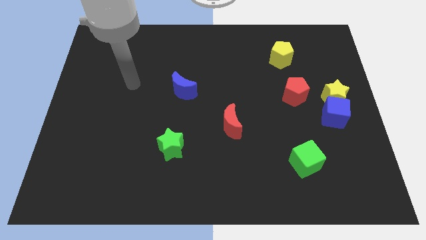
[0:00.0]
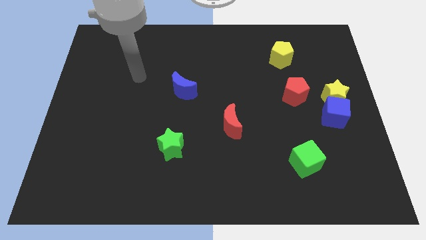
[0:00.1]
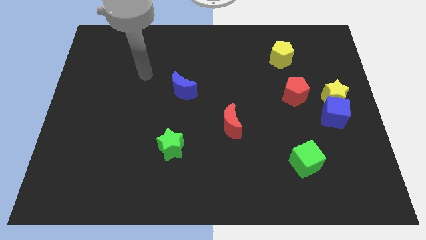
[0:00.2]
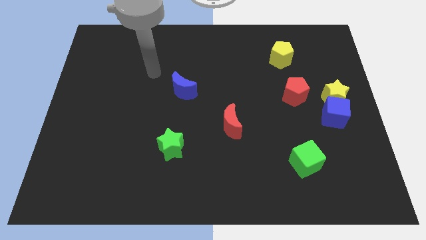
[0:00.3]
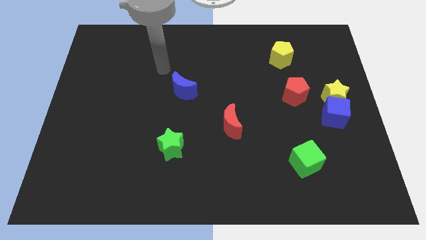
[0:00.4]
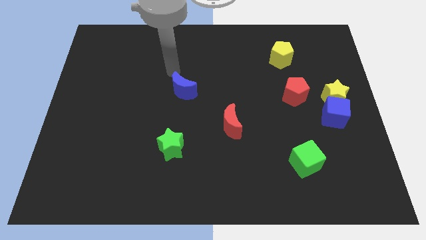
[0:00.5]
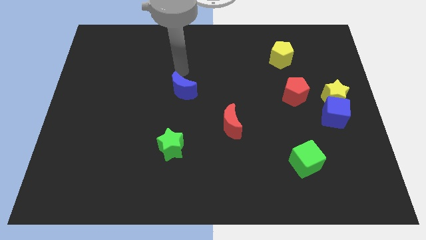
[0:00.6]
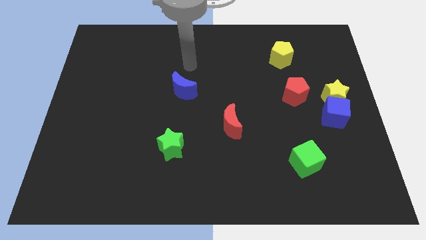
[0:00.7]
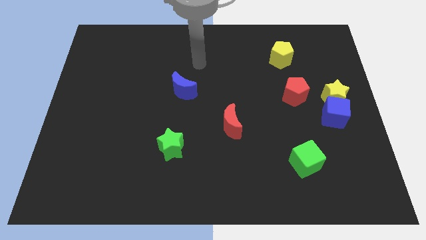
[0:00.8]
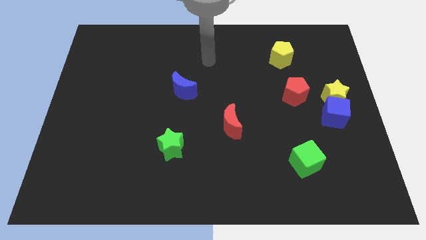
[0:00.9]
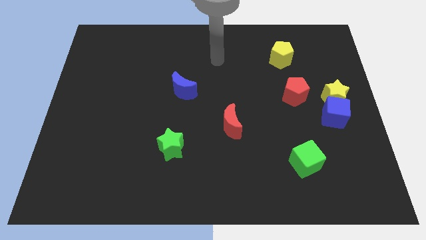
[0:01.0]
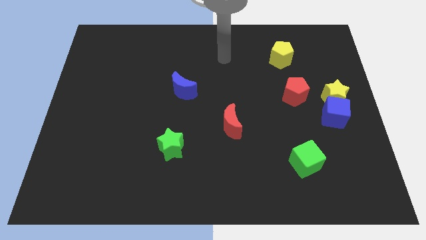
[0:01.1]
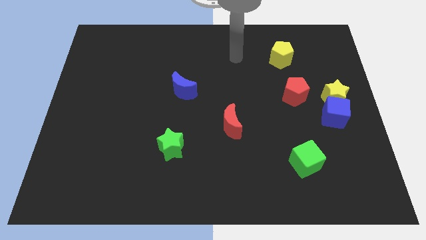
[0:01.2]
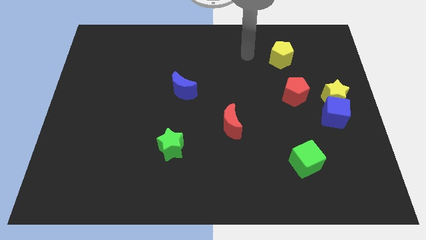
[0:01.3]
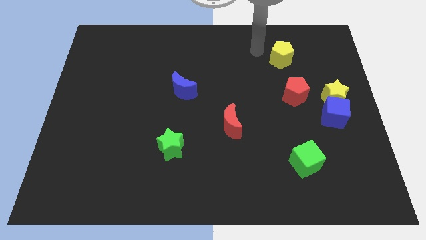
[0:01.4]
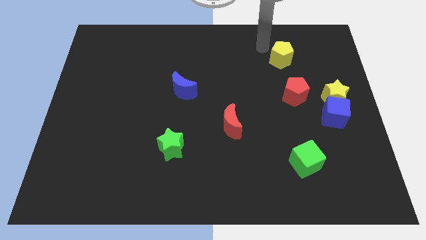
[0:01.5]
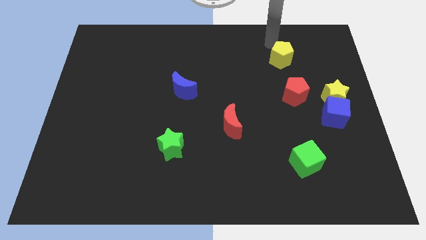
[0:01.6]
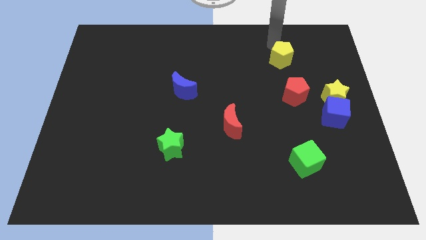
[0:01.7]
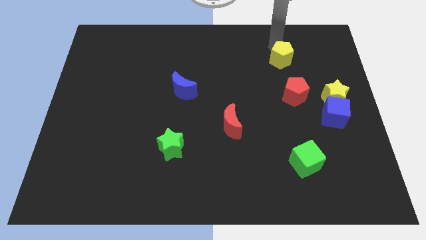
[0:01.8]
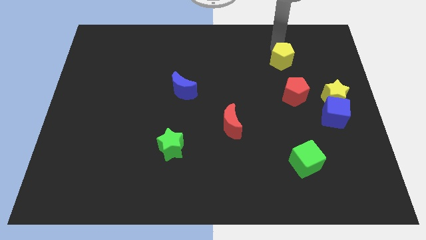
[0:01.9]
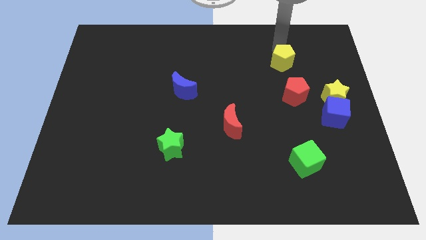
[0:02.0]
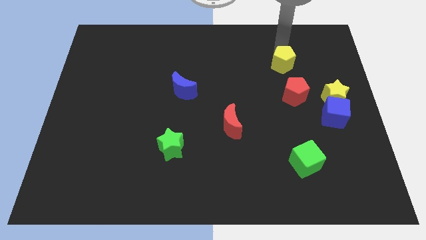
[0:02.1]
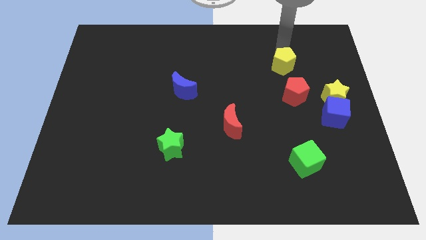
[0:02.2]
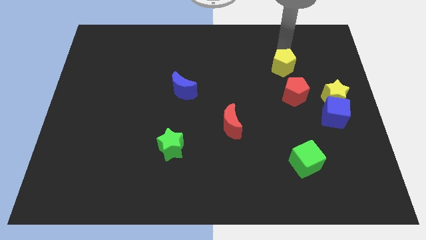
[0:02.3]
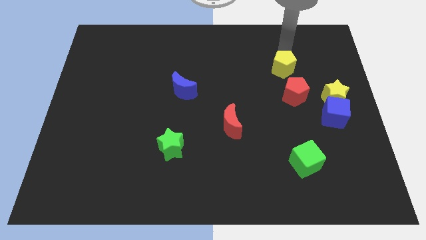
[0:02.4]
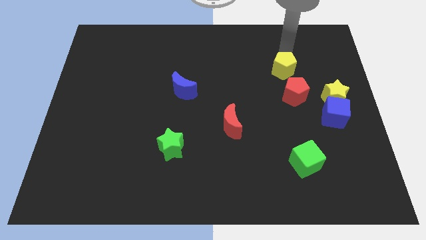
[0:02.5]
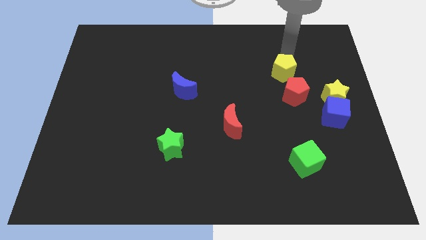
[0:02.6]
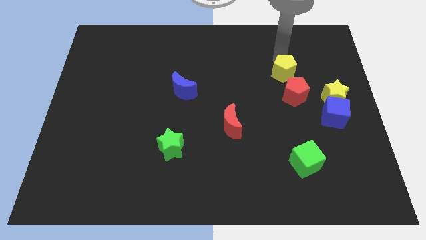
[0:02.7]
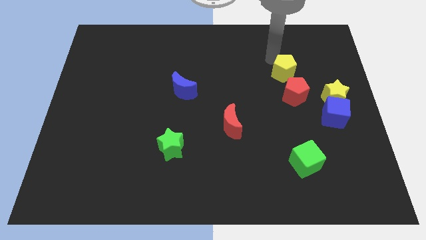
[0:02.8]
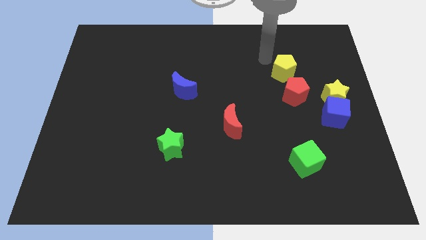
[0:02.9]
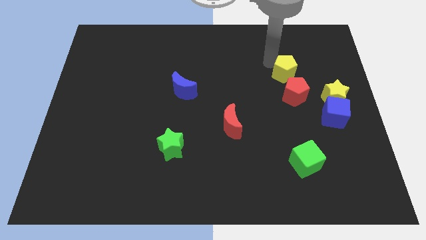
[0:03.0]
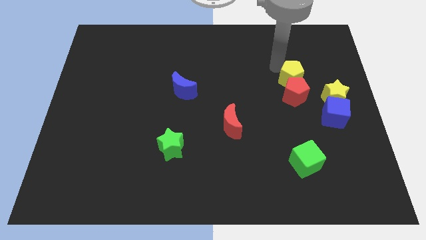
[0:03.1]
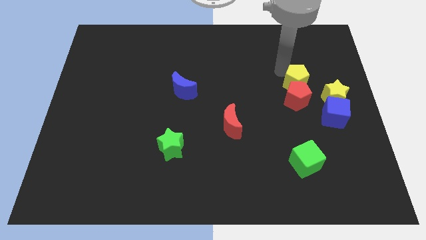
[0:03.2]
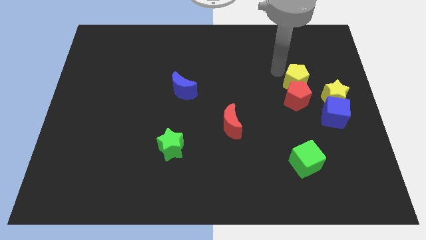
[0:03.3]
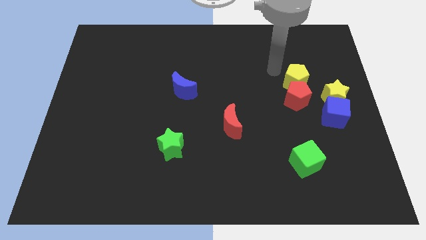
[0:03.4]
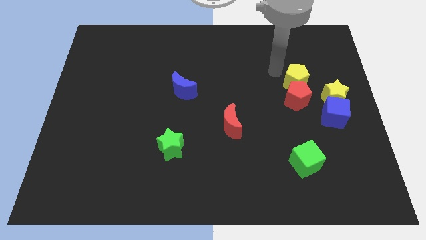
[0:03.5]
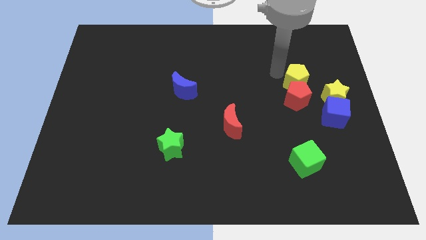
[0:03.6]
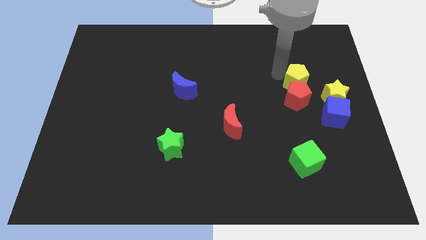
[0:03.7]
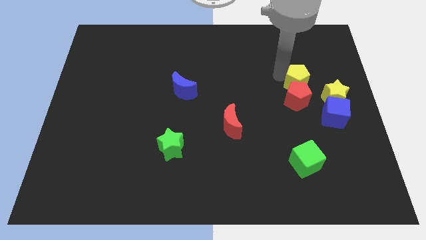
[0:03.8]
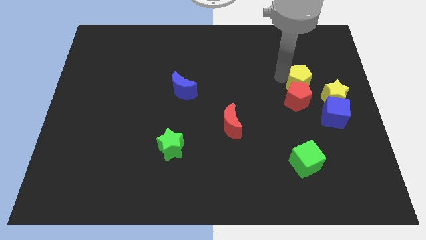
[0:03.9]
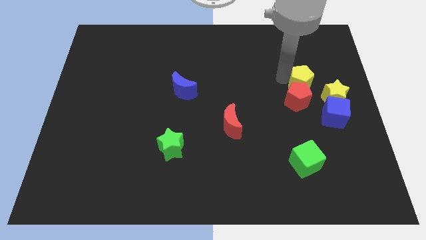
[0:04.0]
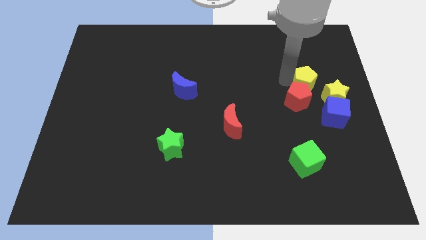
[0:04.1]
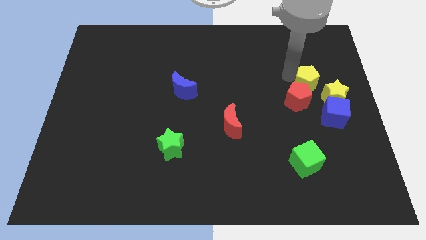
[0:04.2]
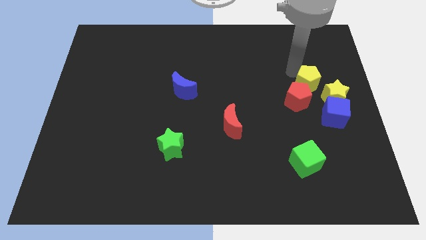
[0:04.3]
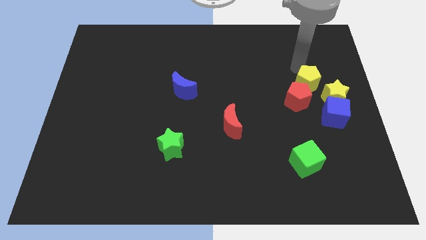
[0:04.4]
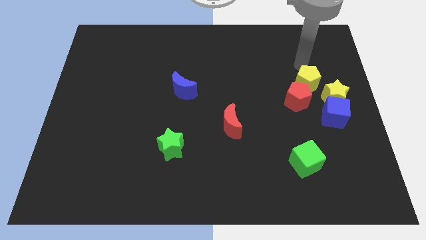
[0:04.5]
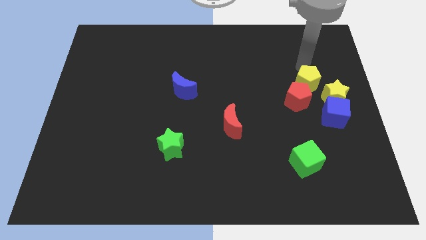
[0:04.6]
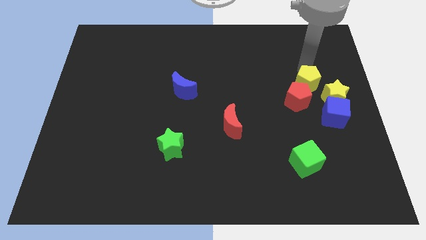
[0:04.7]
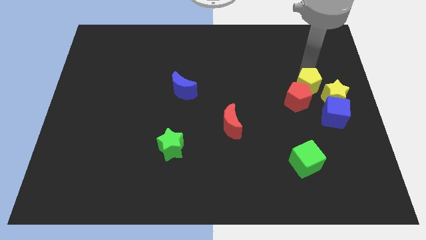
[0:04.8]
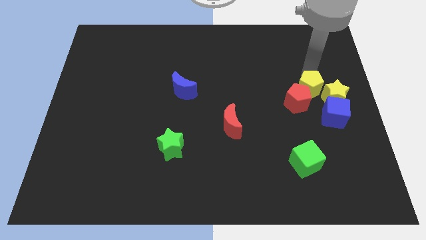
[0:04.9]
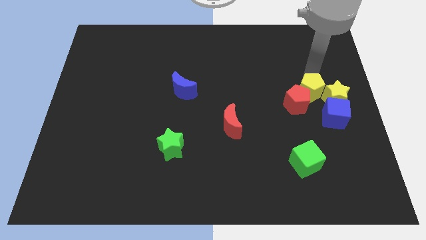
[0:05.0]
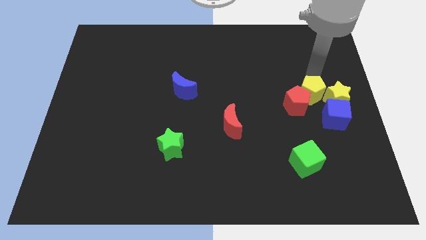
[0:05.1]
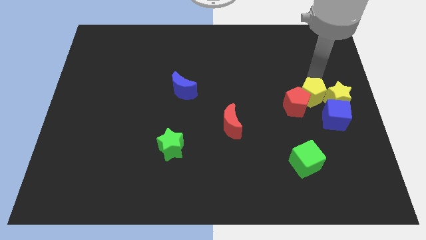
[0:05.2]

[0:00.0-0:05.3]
put the yellow pentagon to the bottom left side of the yellow star

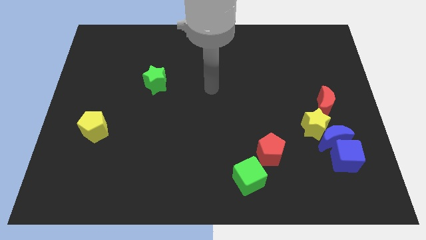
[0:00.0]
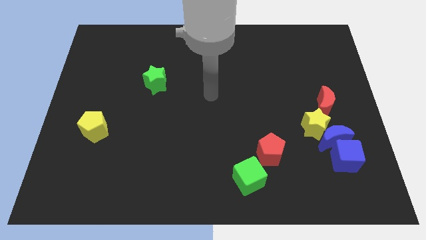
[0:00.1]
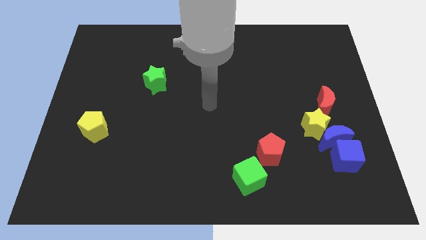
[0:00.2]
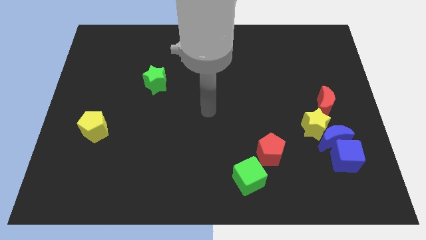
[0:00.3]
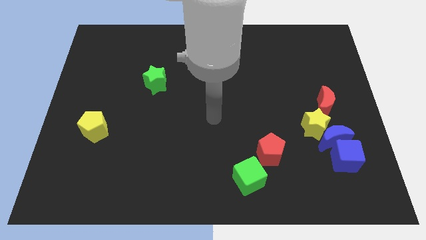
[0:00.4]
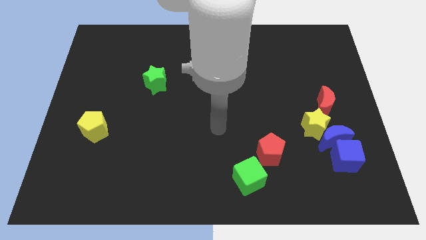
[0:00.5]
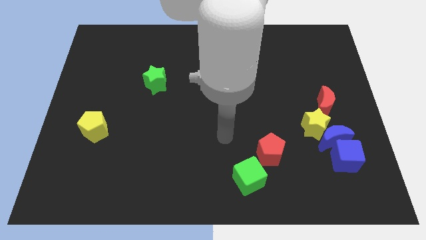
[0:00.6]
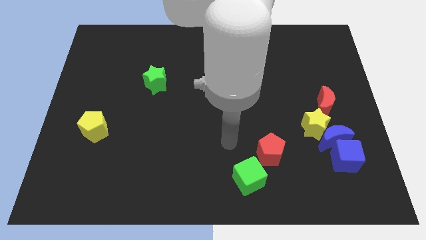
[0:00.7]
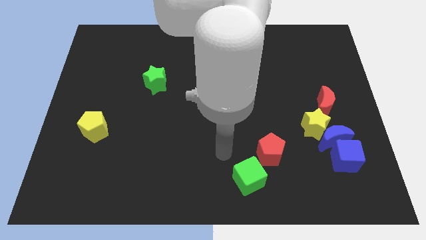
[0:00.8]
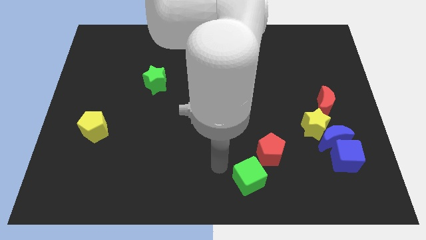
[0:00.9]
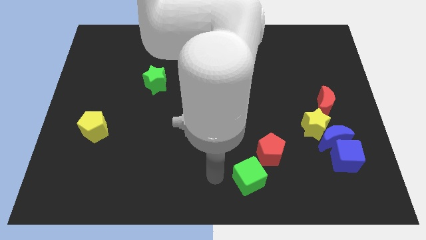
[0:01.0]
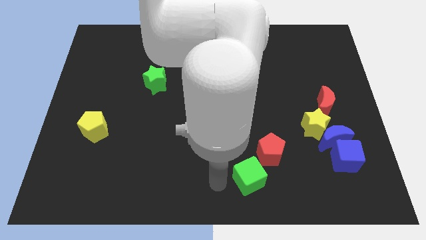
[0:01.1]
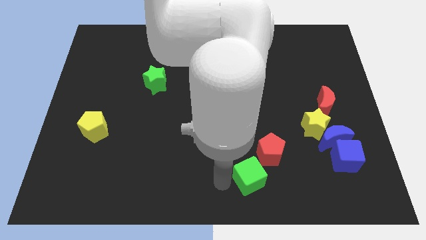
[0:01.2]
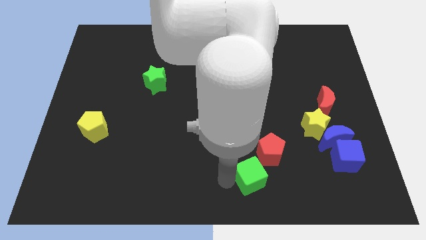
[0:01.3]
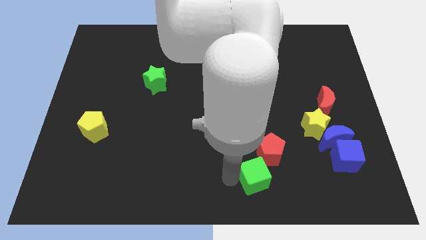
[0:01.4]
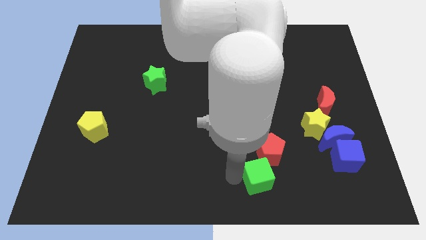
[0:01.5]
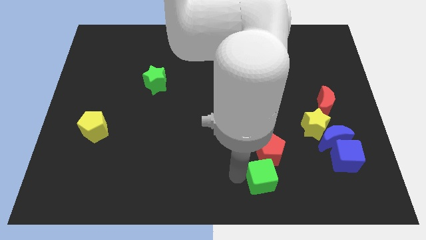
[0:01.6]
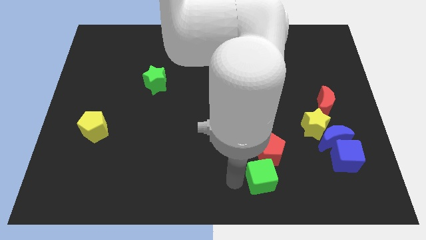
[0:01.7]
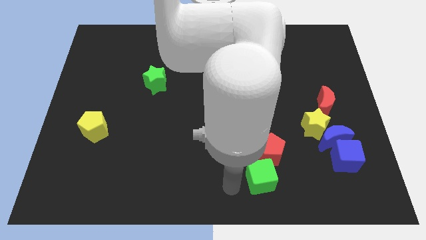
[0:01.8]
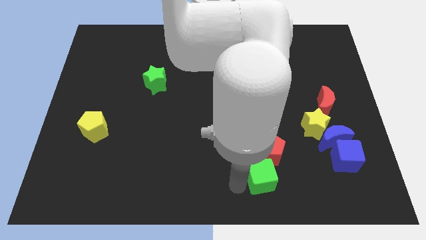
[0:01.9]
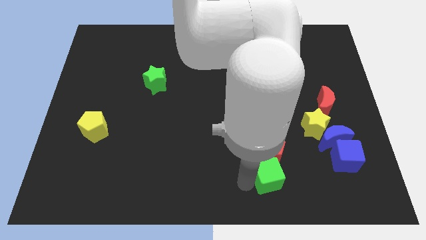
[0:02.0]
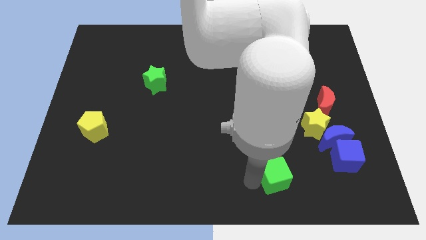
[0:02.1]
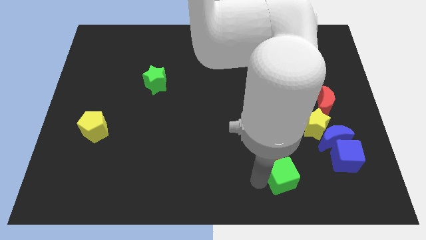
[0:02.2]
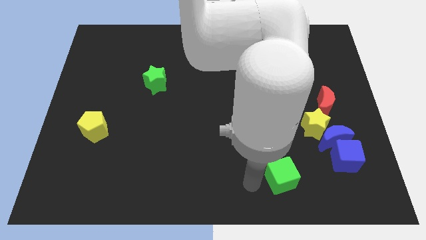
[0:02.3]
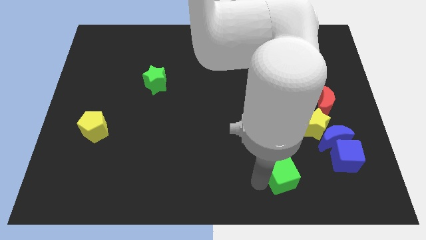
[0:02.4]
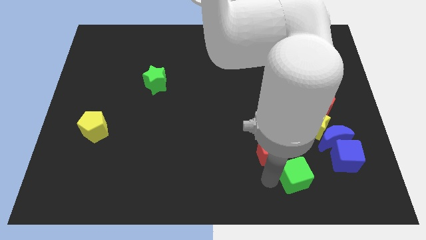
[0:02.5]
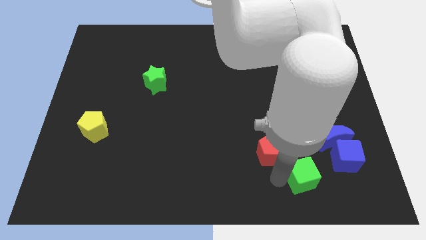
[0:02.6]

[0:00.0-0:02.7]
move the green cube to the bottom of the yellow star
